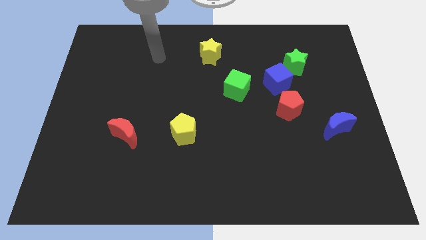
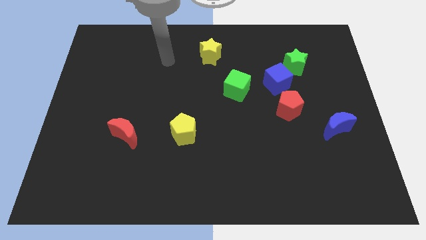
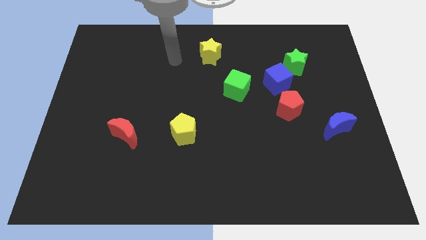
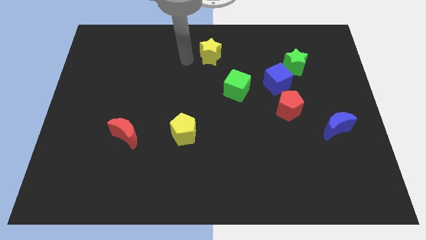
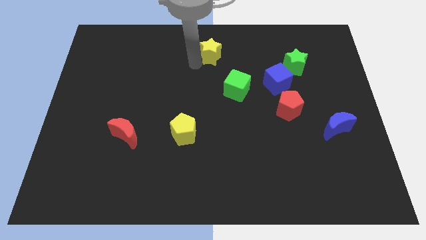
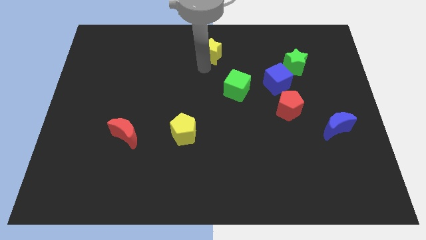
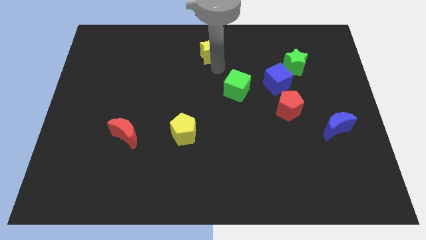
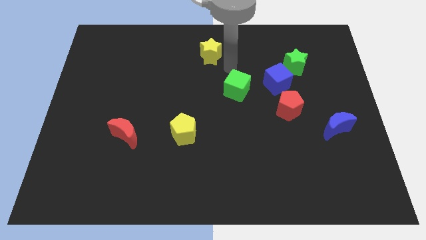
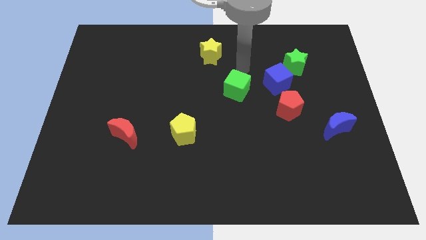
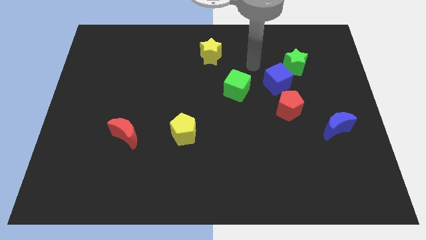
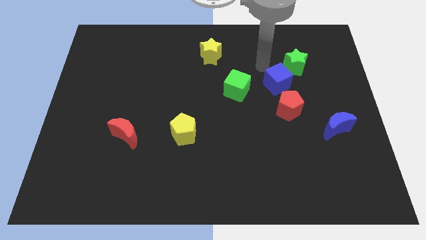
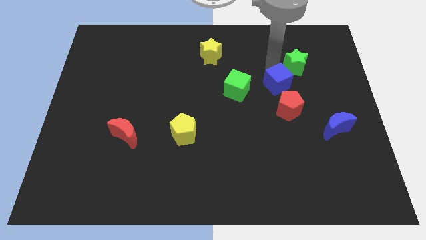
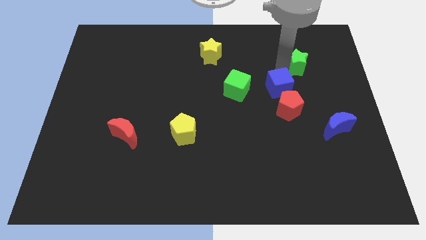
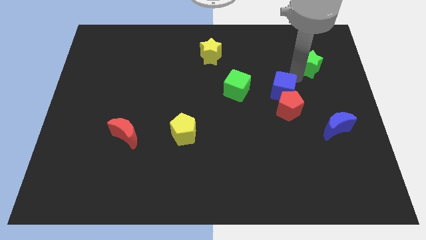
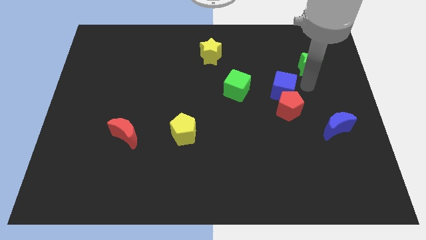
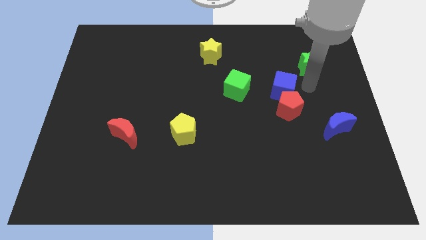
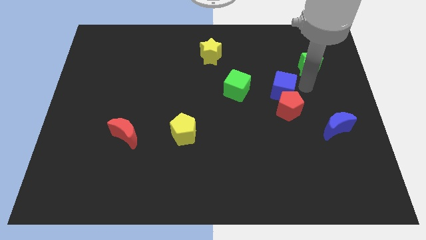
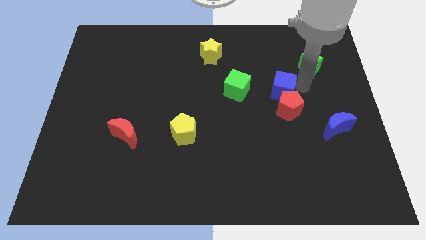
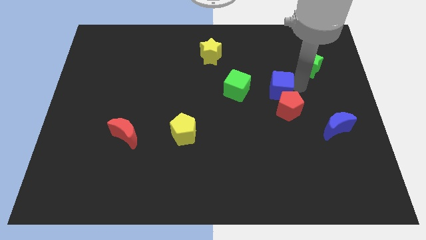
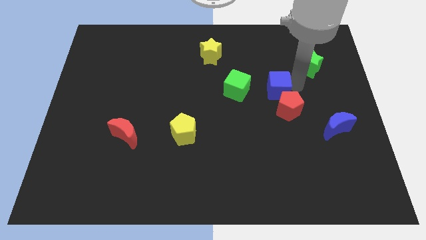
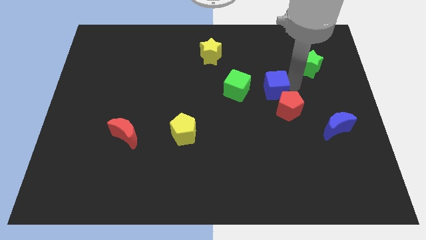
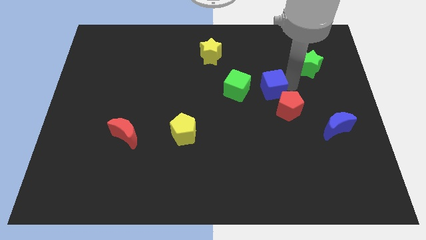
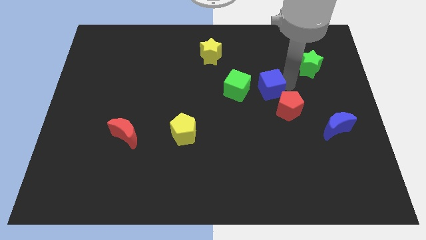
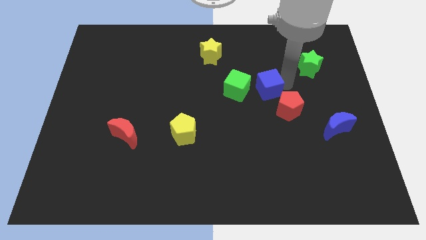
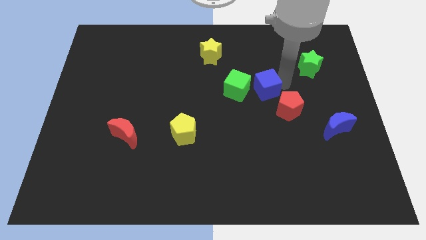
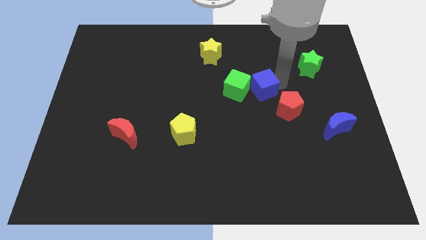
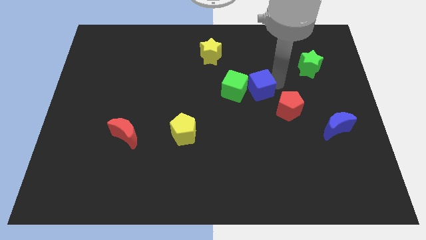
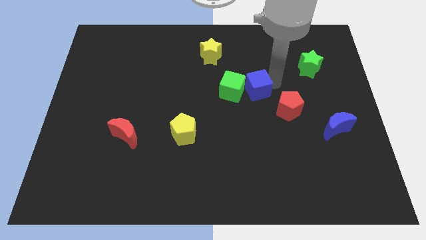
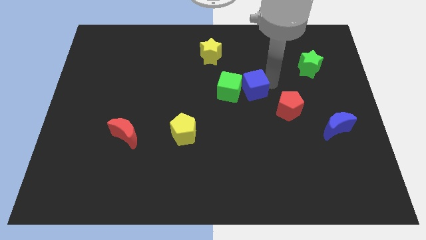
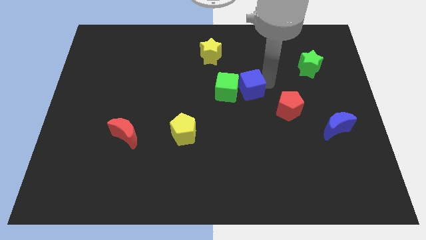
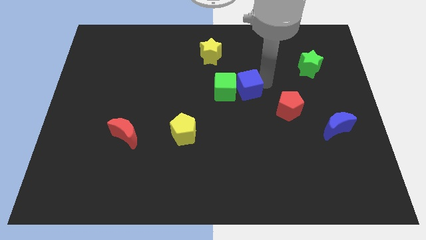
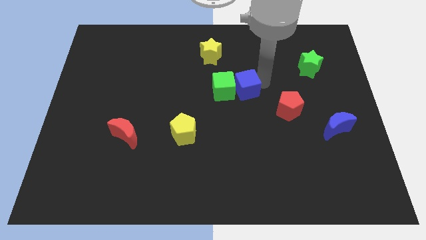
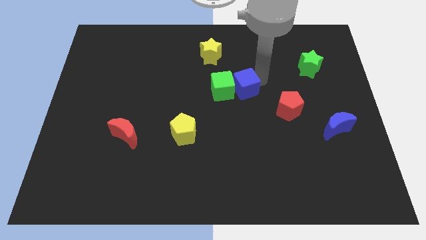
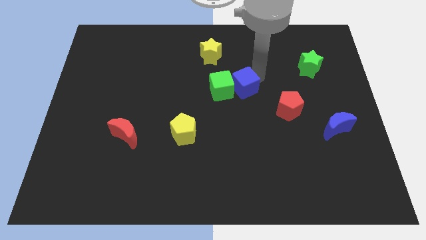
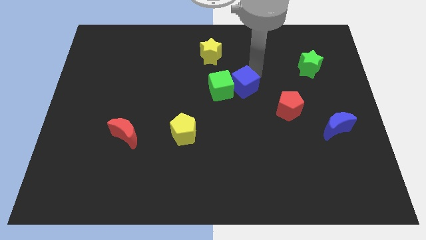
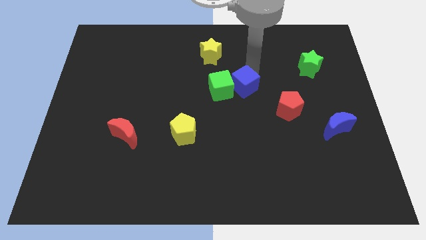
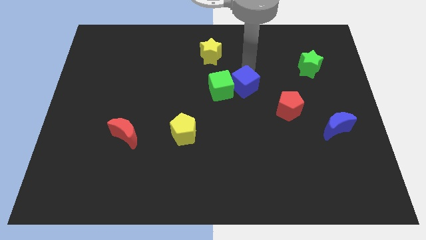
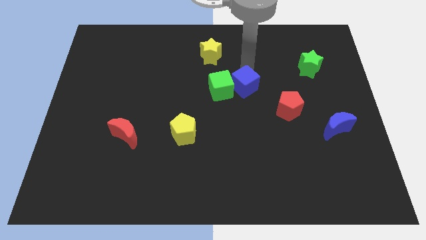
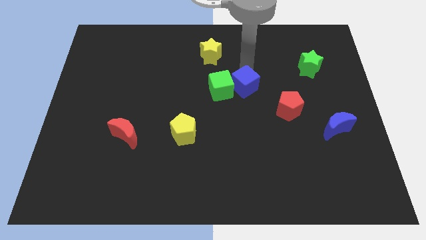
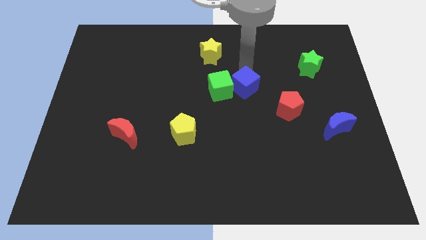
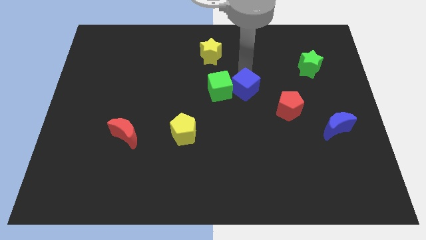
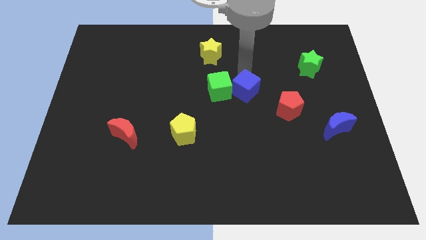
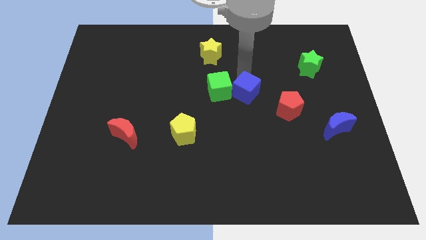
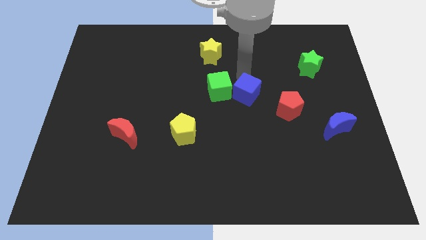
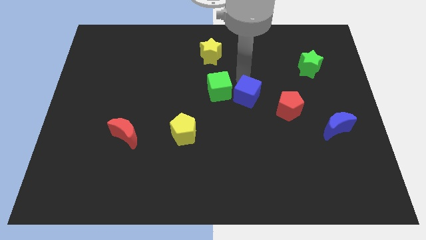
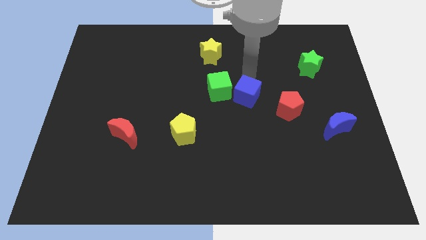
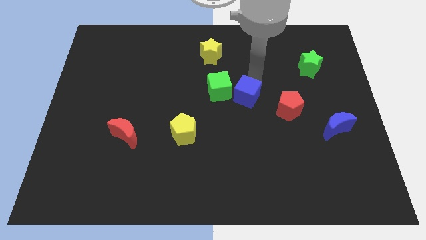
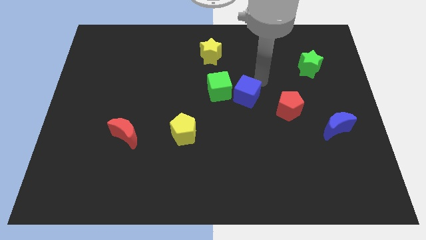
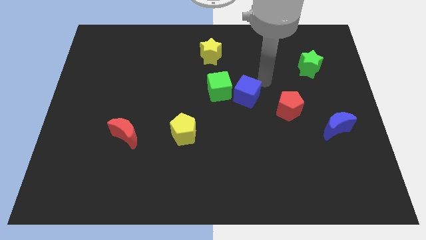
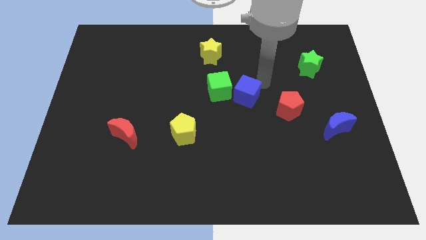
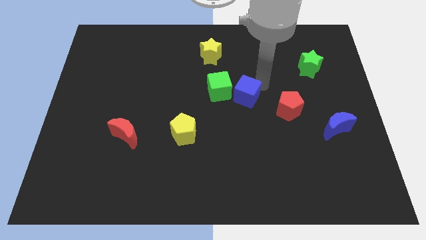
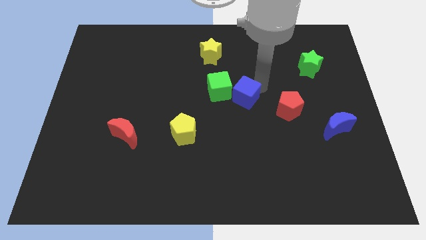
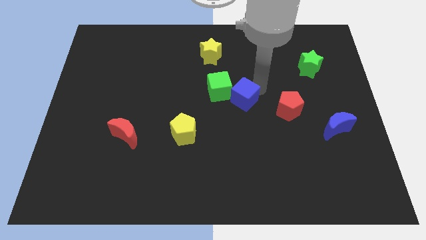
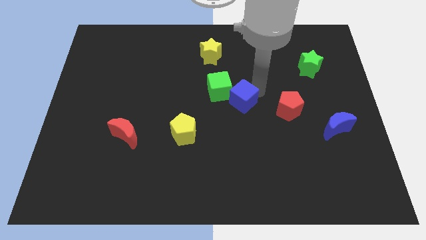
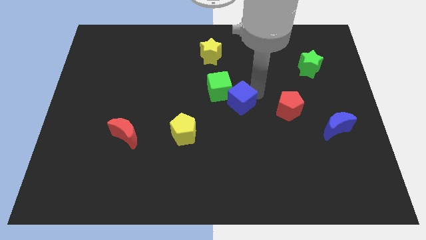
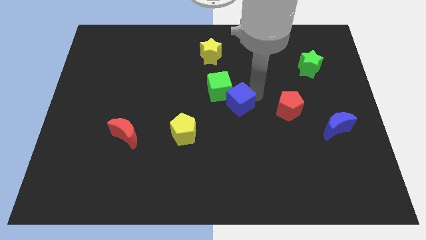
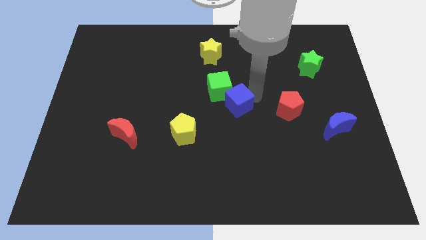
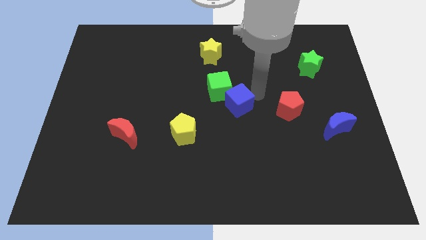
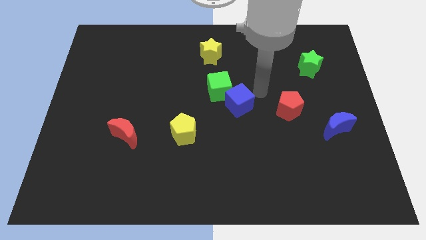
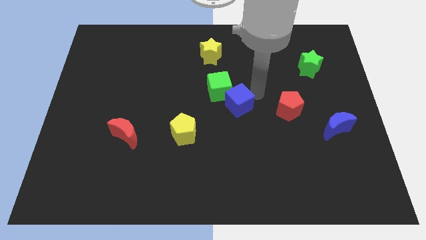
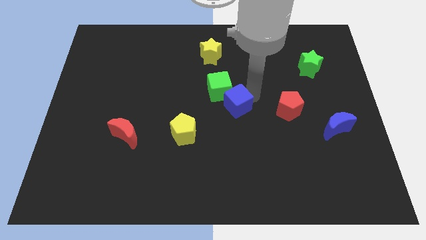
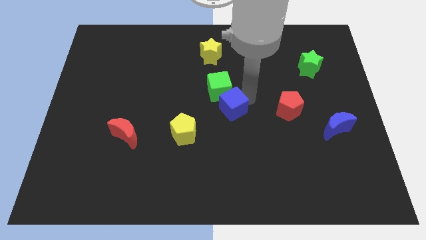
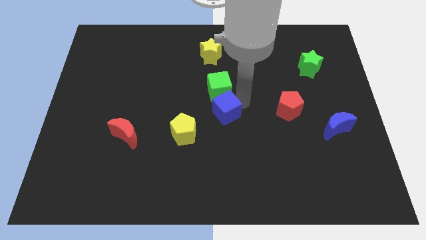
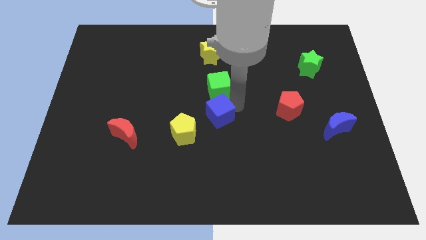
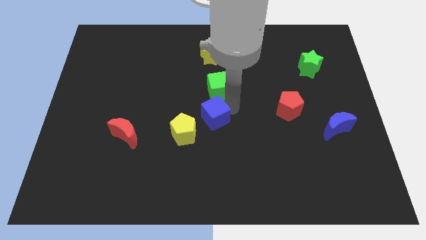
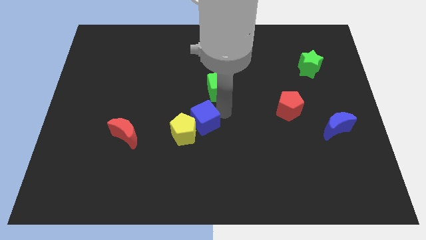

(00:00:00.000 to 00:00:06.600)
slide the blue cube close to the yellow pentagon

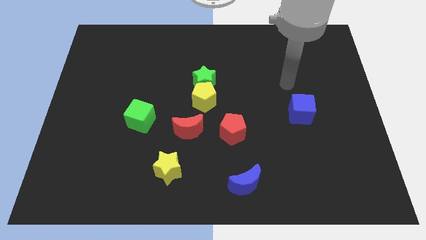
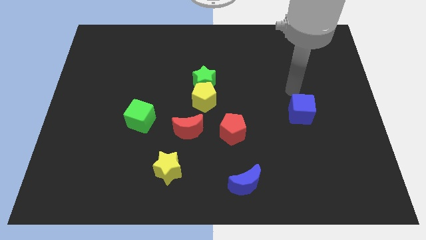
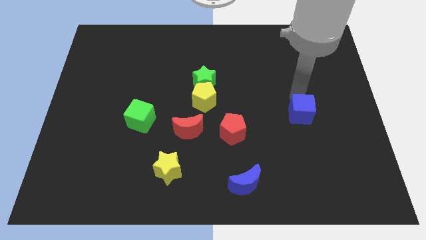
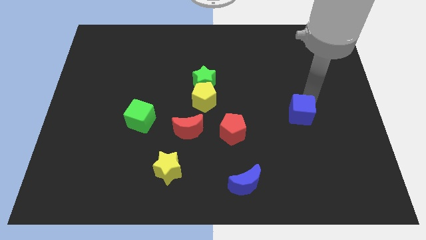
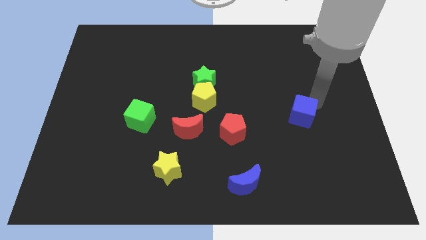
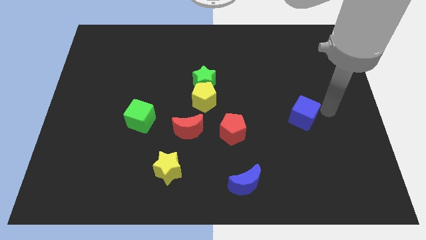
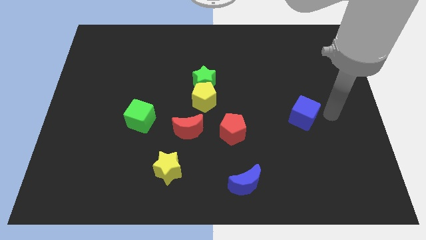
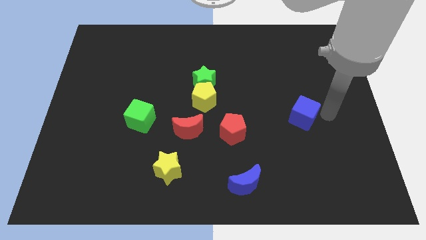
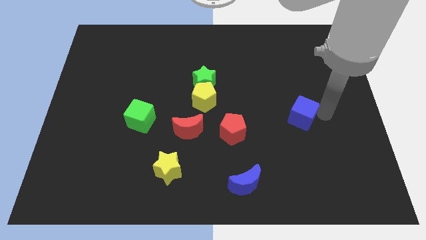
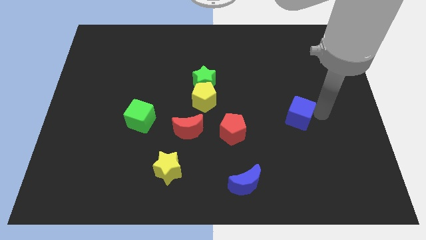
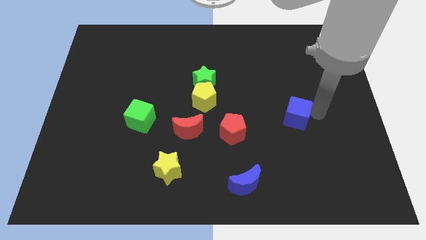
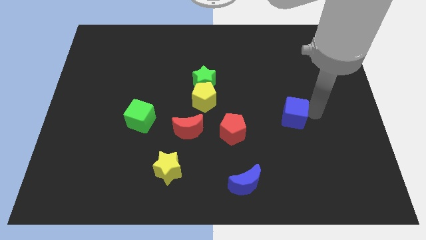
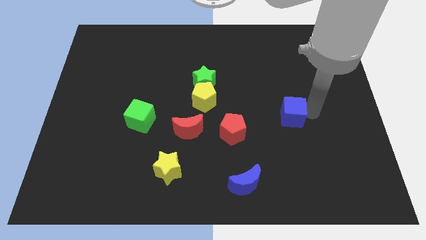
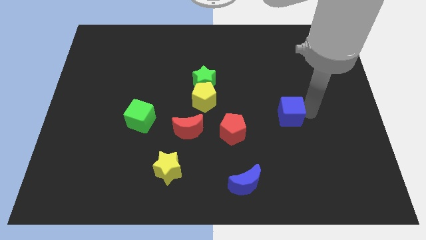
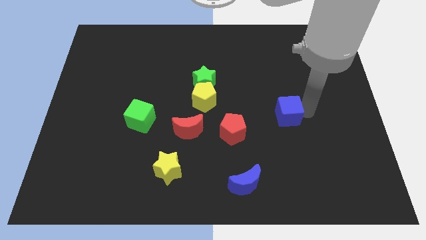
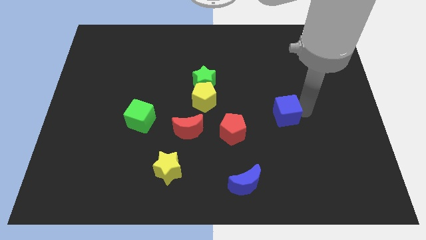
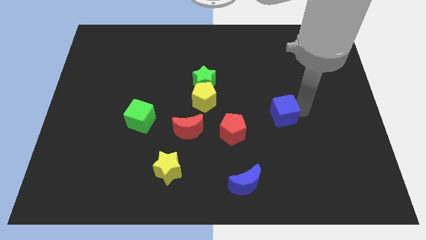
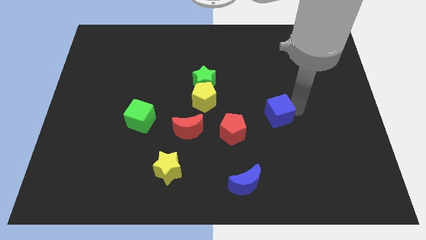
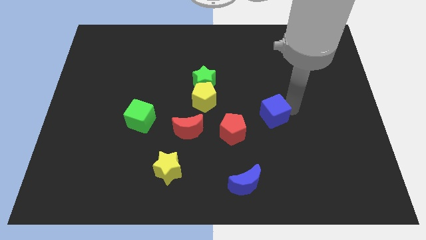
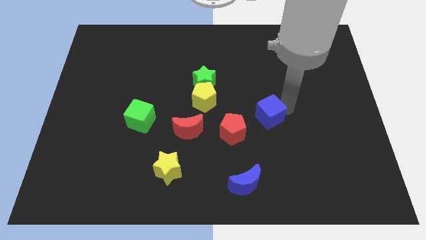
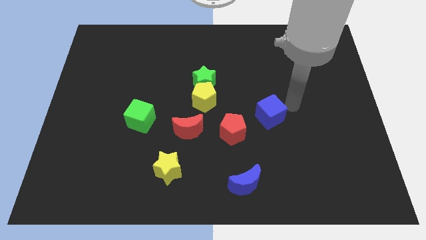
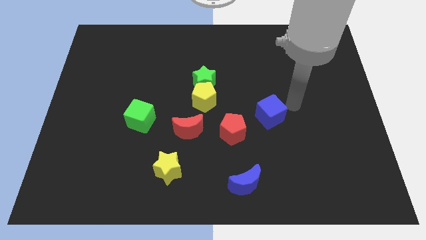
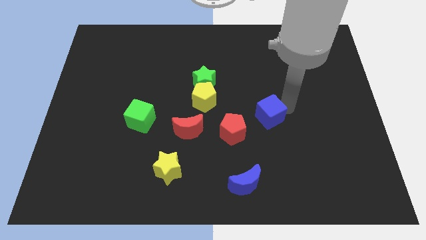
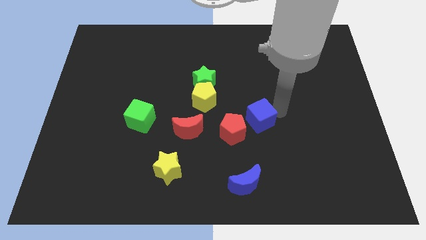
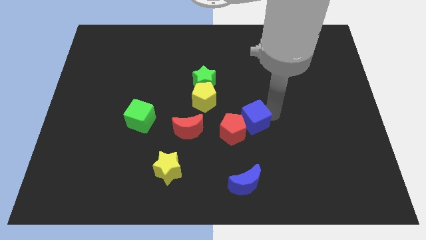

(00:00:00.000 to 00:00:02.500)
put the blue cube close to the red pentagon
